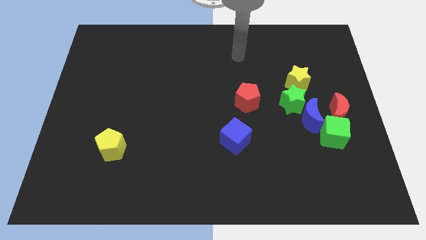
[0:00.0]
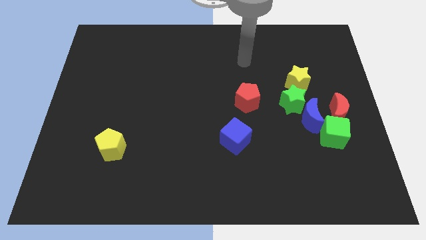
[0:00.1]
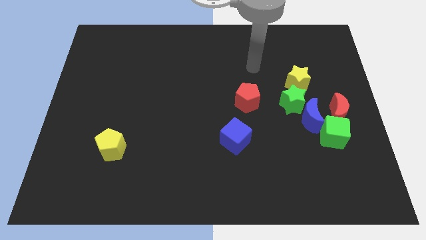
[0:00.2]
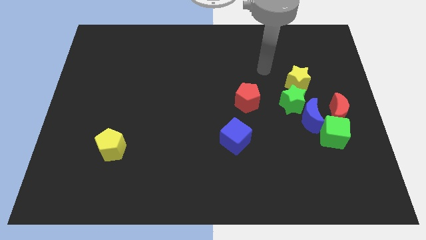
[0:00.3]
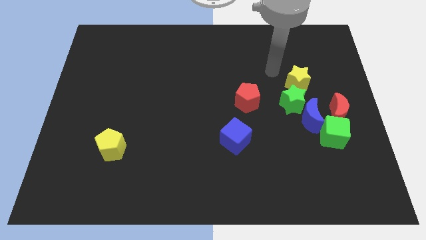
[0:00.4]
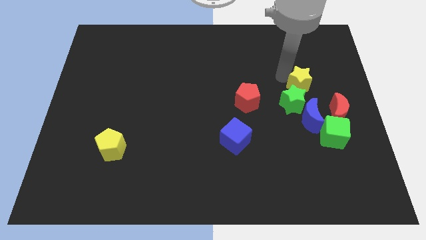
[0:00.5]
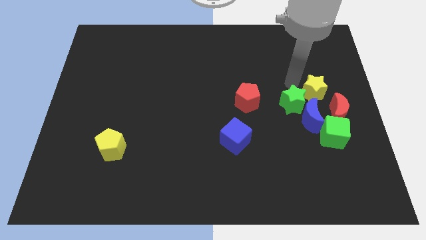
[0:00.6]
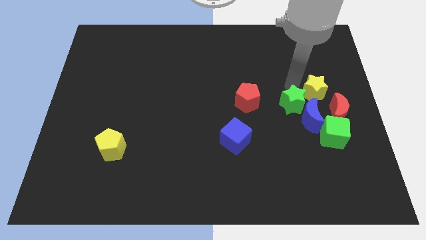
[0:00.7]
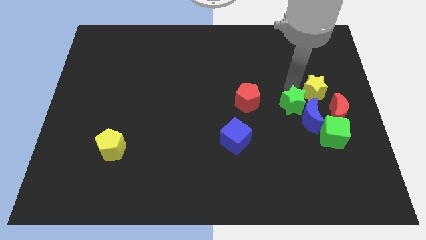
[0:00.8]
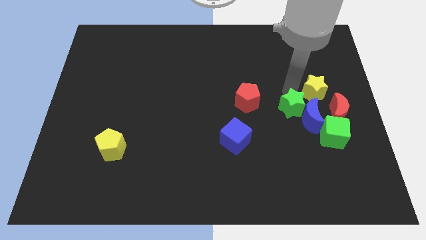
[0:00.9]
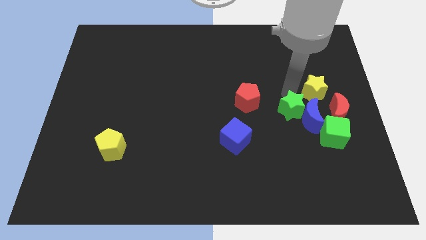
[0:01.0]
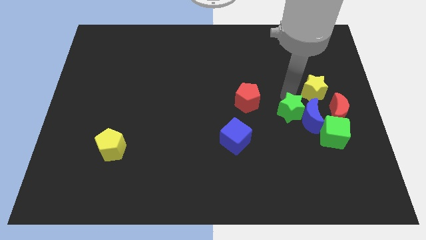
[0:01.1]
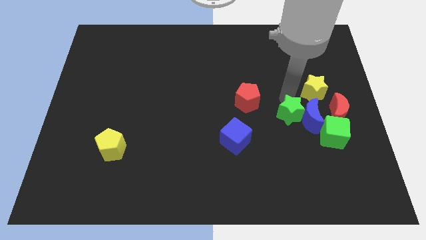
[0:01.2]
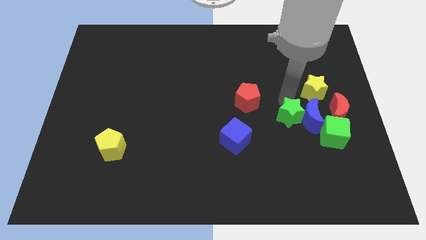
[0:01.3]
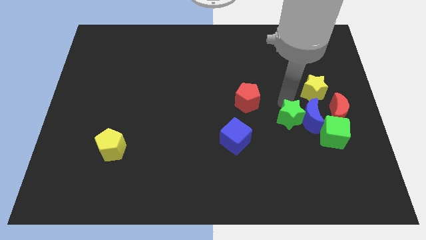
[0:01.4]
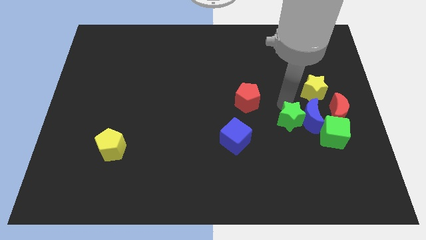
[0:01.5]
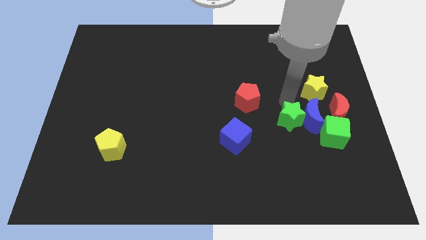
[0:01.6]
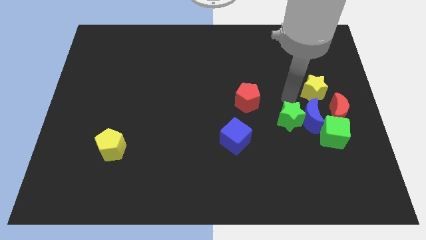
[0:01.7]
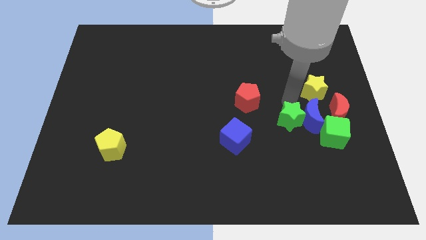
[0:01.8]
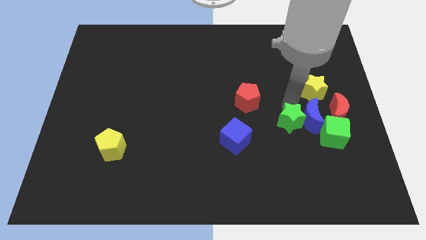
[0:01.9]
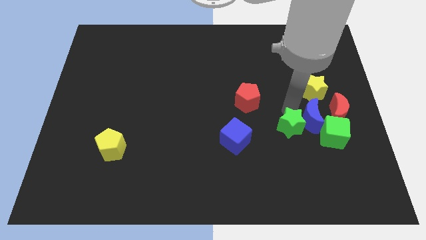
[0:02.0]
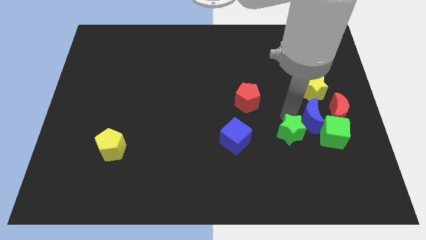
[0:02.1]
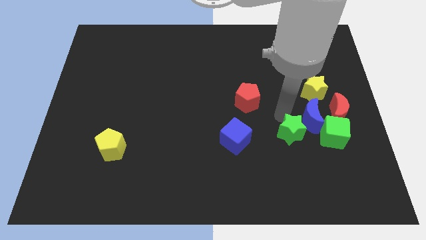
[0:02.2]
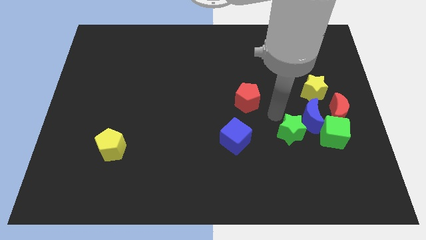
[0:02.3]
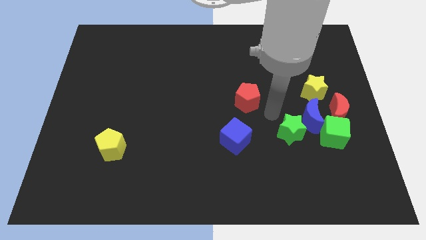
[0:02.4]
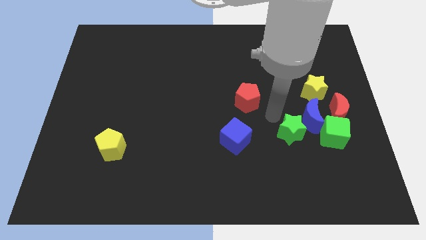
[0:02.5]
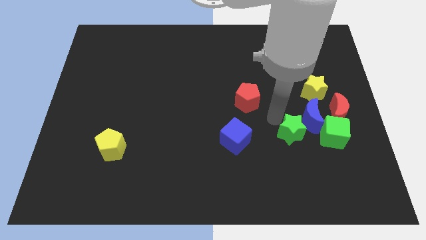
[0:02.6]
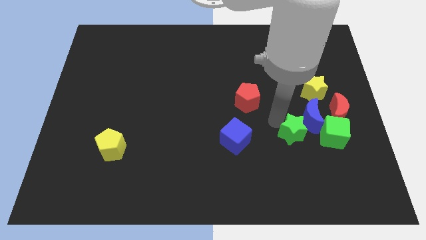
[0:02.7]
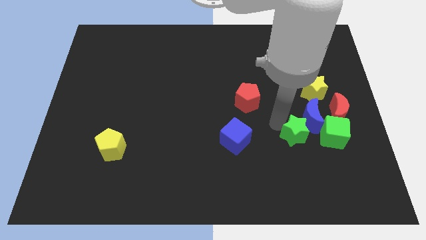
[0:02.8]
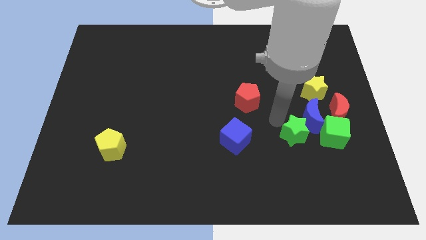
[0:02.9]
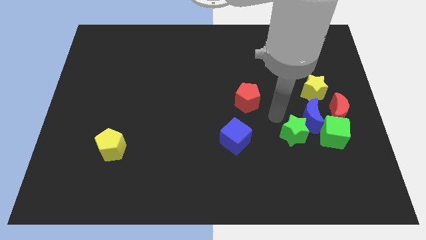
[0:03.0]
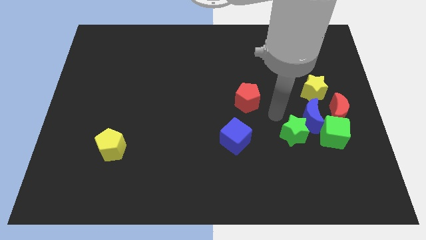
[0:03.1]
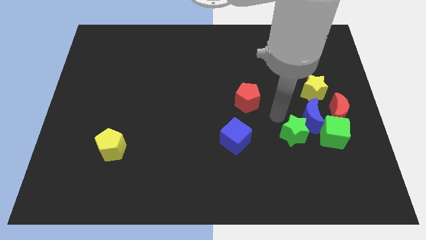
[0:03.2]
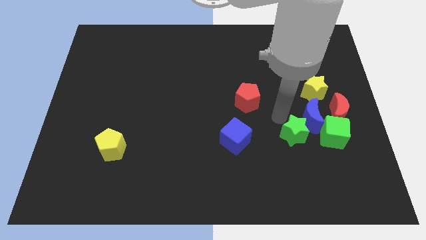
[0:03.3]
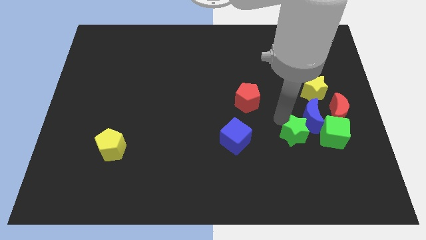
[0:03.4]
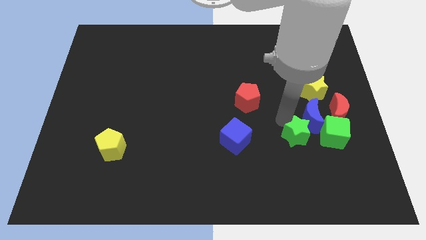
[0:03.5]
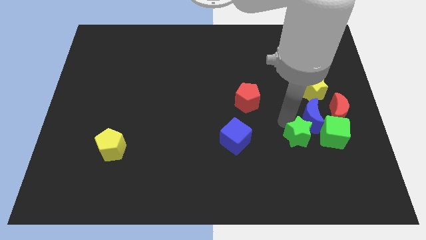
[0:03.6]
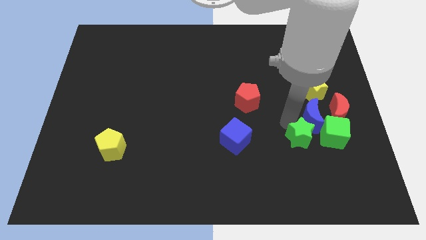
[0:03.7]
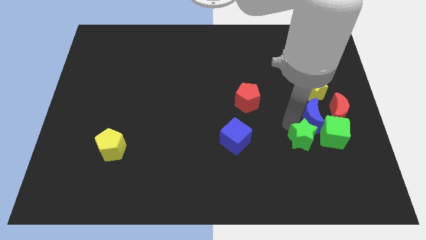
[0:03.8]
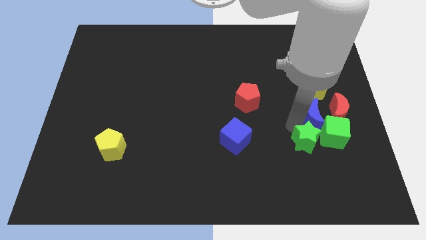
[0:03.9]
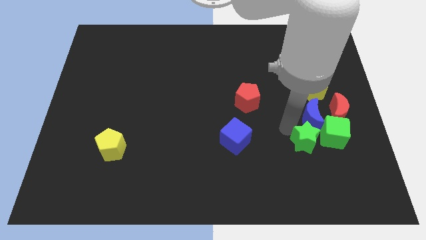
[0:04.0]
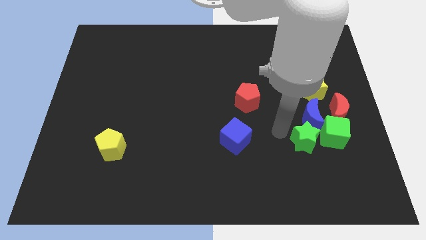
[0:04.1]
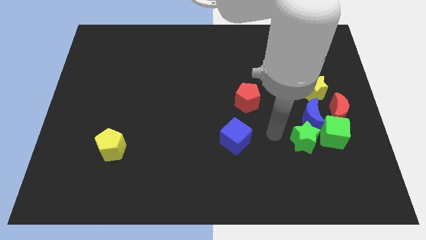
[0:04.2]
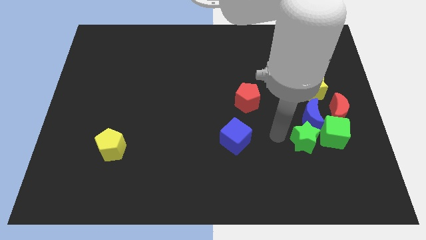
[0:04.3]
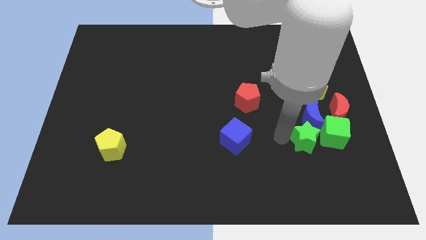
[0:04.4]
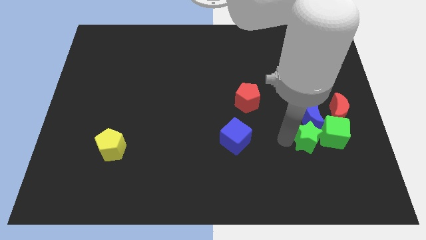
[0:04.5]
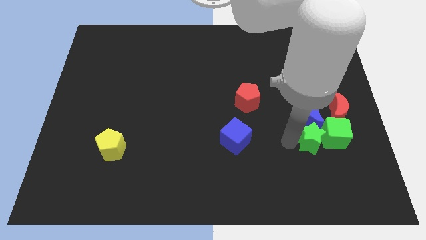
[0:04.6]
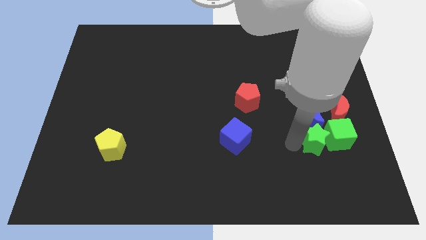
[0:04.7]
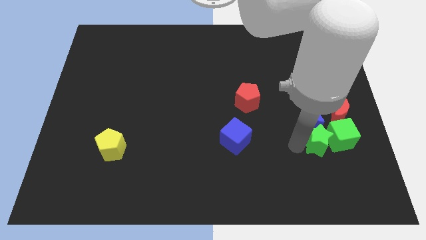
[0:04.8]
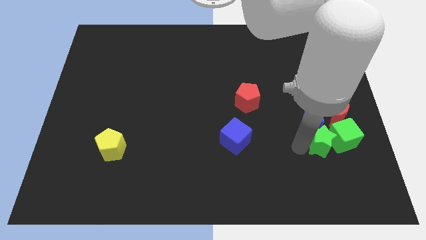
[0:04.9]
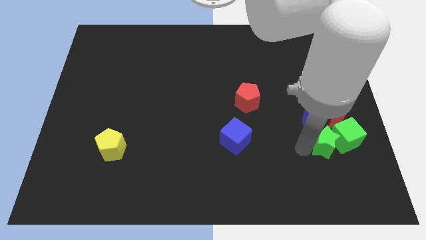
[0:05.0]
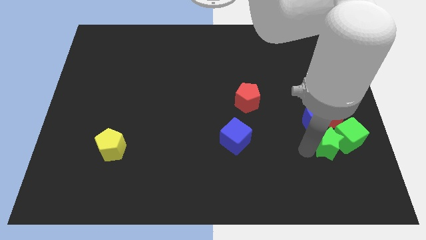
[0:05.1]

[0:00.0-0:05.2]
put the green star to the bottom side of the red moon

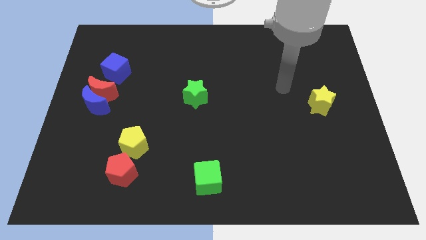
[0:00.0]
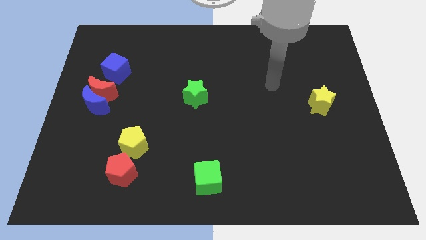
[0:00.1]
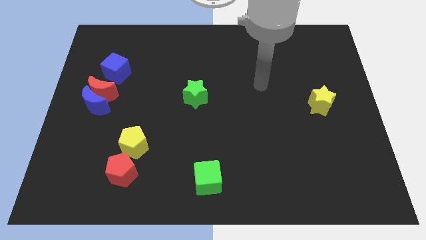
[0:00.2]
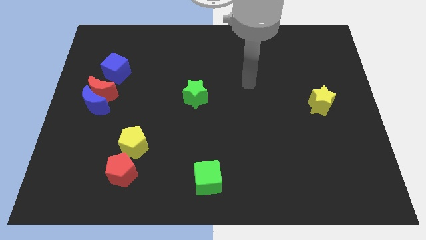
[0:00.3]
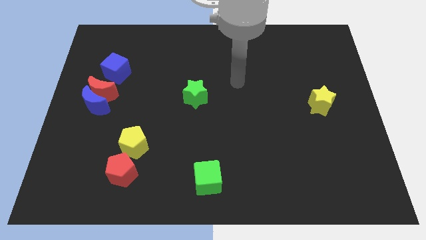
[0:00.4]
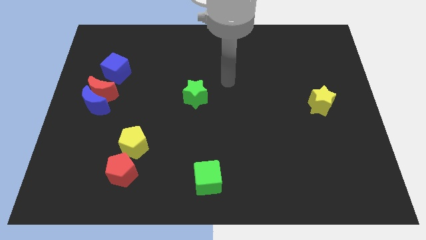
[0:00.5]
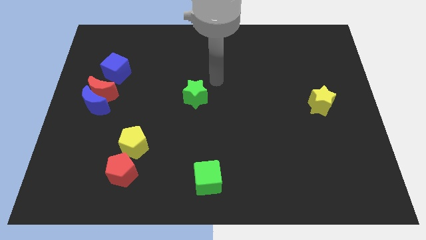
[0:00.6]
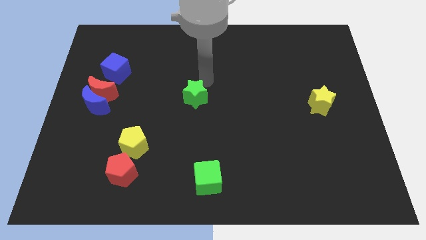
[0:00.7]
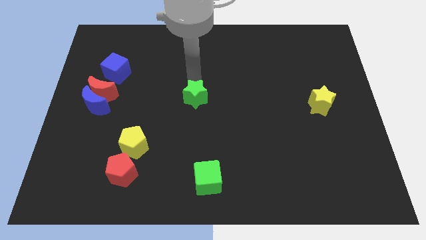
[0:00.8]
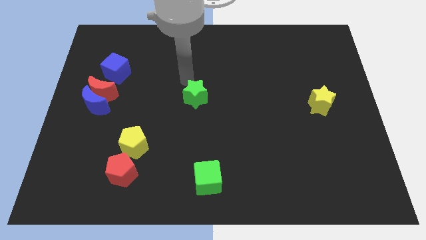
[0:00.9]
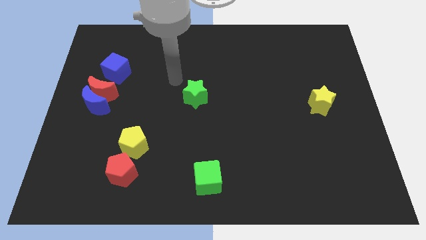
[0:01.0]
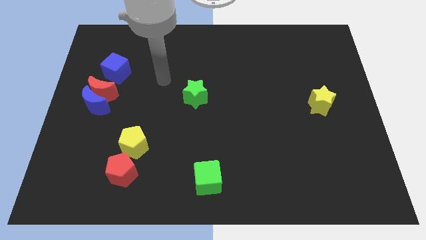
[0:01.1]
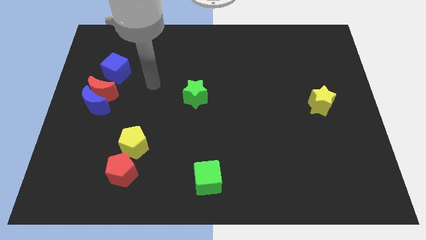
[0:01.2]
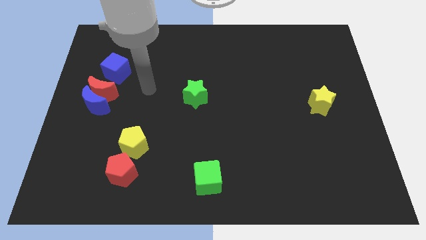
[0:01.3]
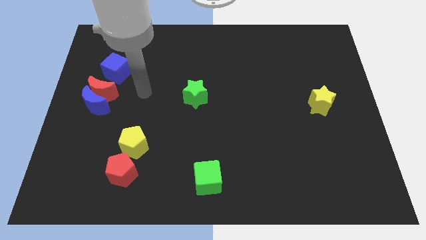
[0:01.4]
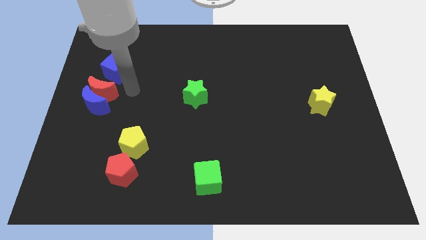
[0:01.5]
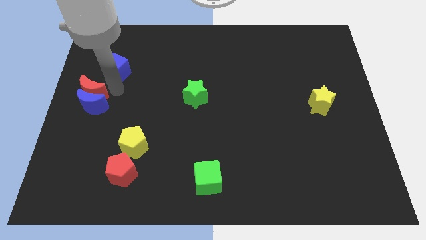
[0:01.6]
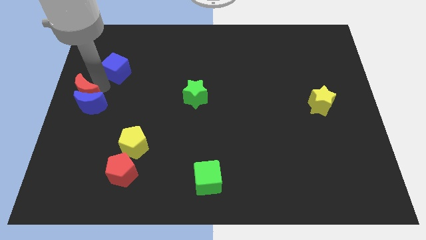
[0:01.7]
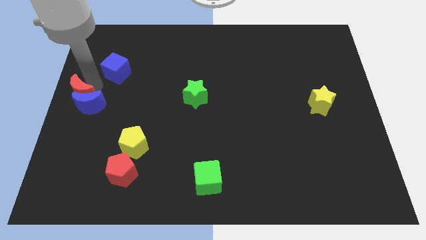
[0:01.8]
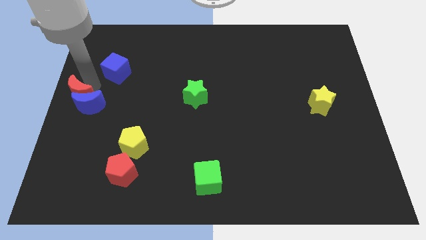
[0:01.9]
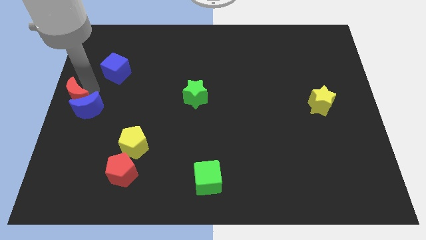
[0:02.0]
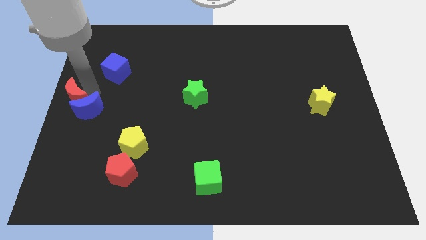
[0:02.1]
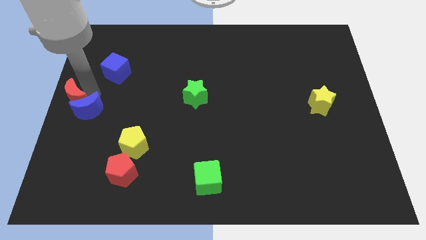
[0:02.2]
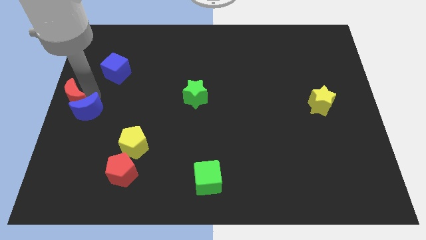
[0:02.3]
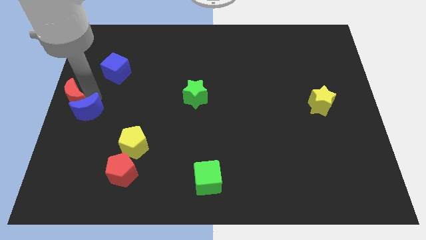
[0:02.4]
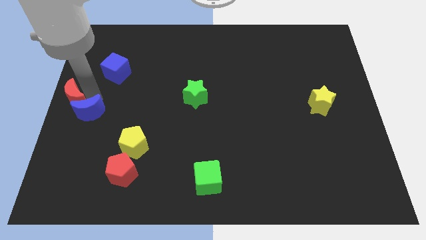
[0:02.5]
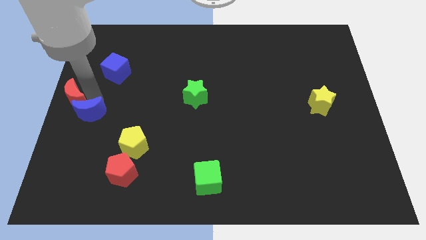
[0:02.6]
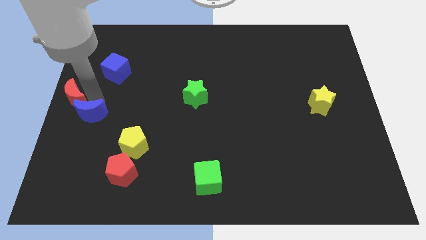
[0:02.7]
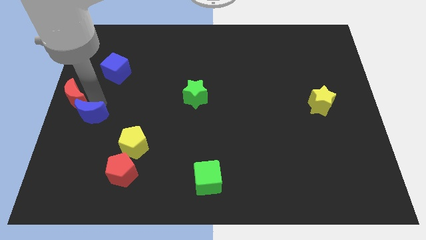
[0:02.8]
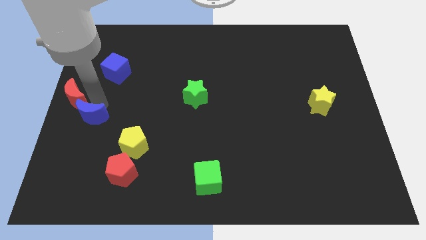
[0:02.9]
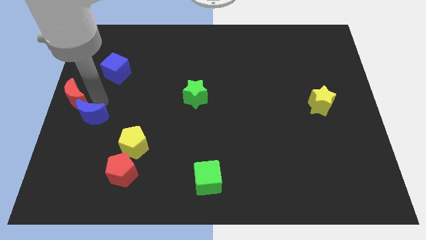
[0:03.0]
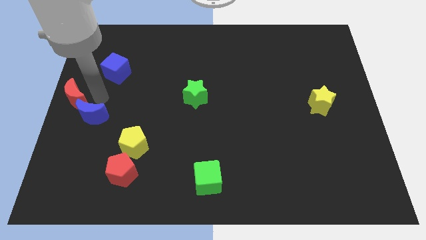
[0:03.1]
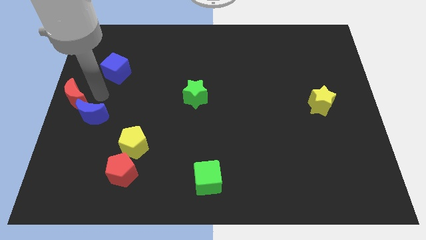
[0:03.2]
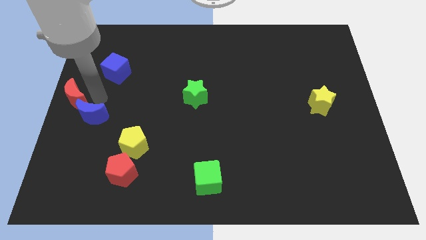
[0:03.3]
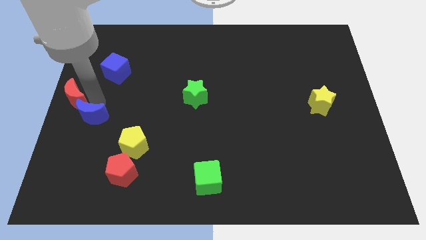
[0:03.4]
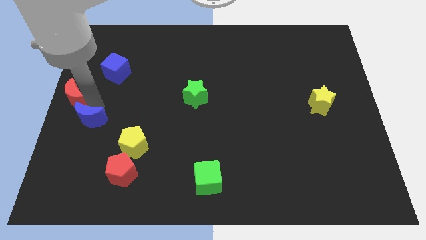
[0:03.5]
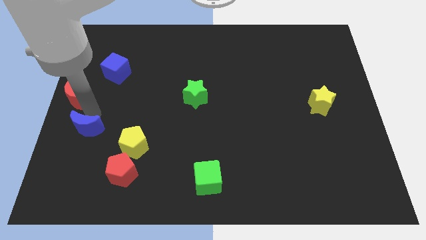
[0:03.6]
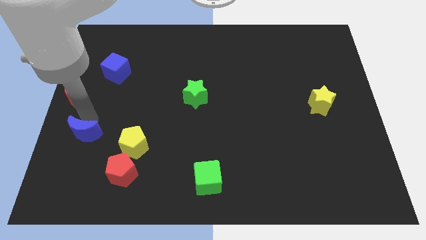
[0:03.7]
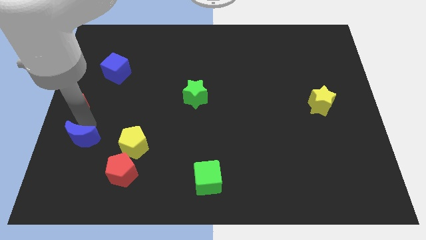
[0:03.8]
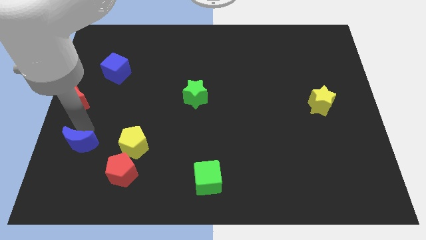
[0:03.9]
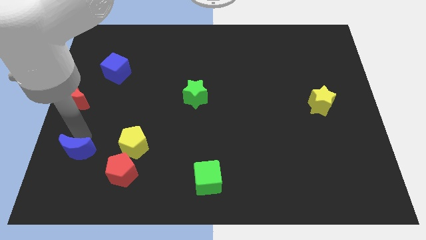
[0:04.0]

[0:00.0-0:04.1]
put the blue moon just left of the red pentagon
